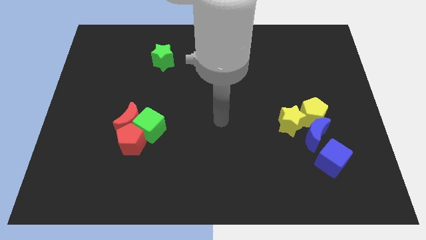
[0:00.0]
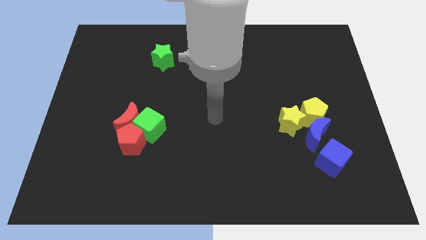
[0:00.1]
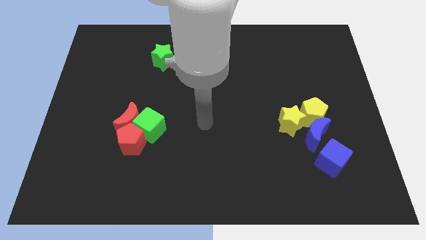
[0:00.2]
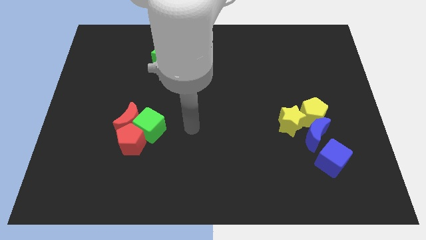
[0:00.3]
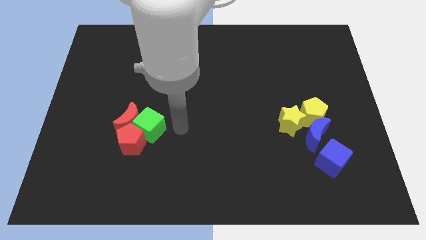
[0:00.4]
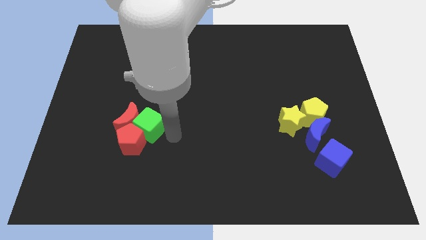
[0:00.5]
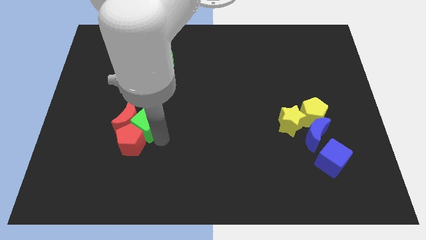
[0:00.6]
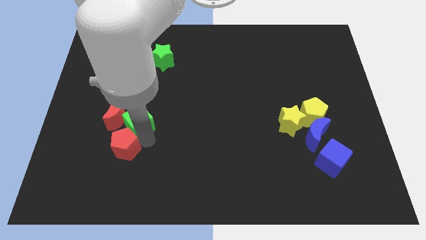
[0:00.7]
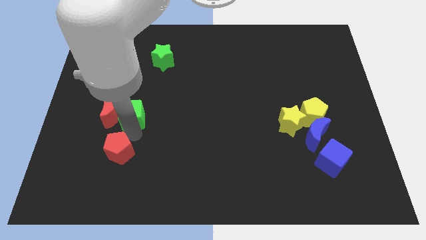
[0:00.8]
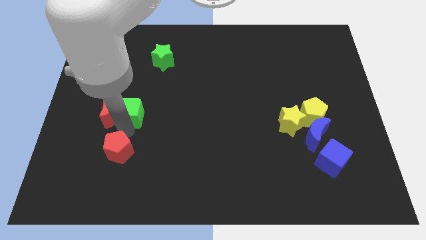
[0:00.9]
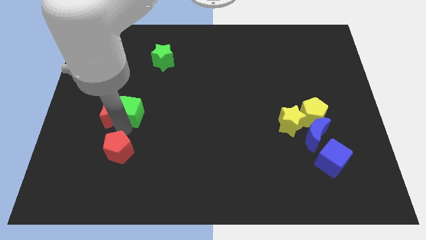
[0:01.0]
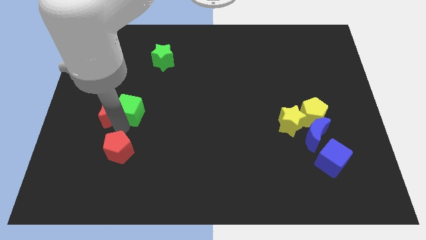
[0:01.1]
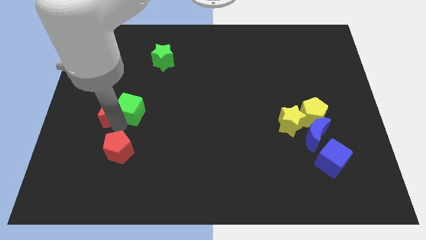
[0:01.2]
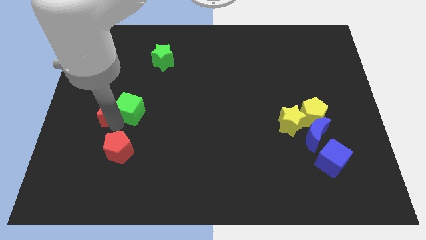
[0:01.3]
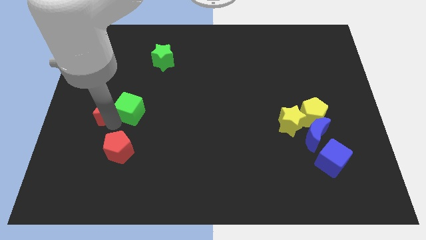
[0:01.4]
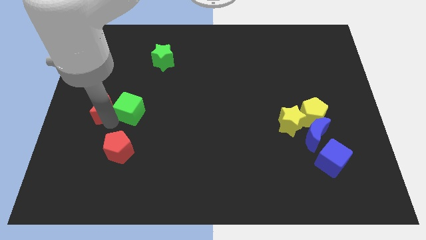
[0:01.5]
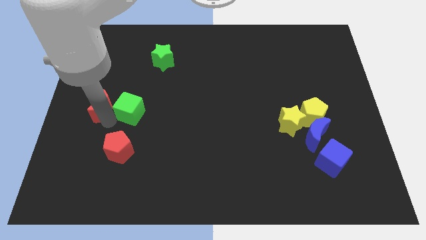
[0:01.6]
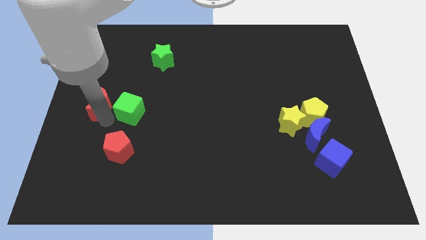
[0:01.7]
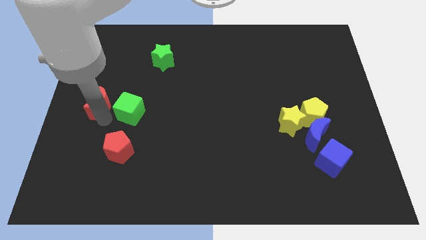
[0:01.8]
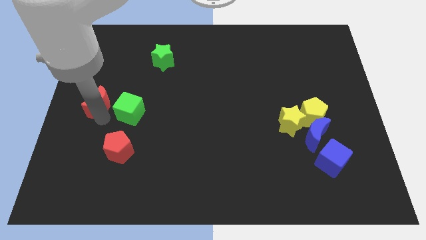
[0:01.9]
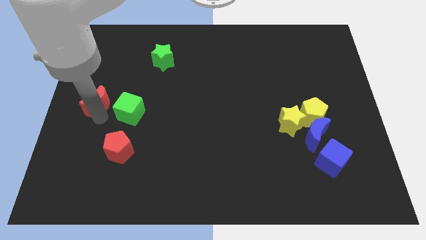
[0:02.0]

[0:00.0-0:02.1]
separate the red moon from the green cube and red pentagon

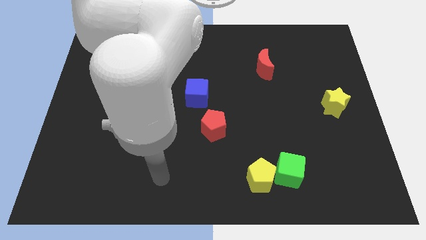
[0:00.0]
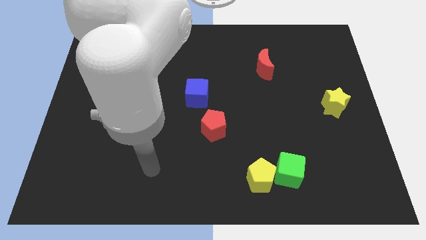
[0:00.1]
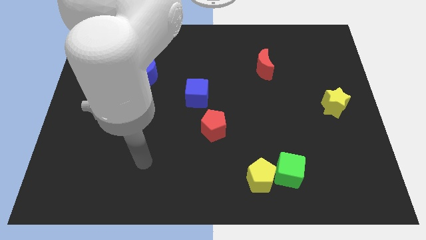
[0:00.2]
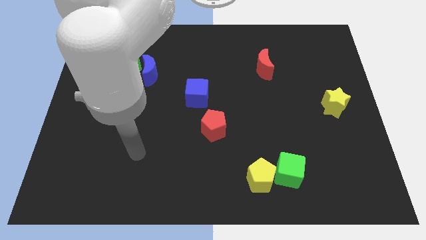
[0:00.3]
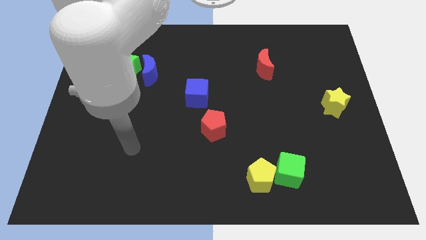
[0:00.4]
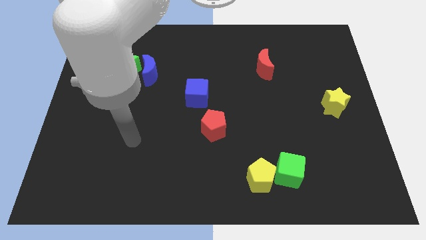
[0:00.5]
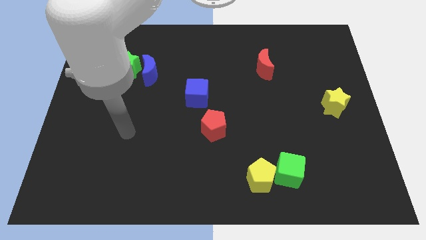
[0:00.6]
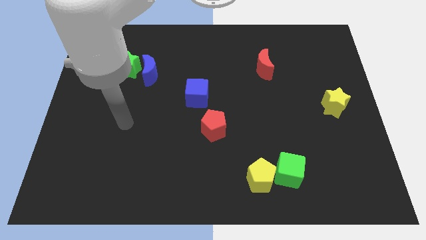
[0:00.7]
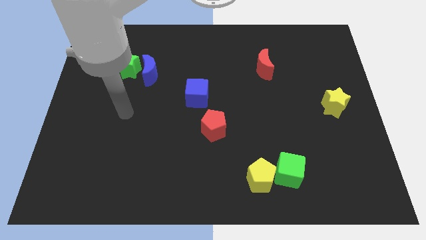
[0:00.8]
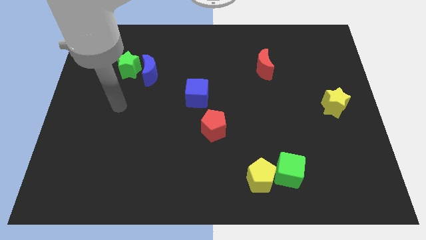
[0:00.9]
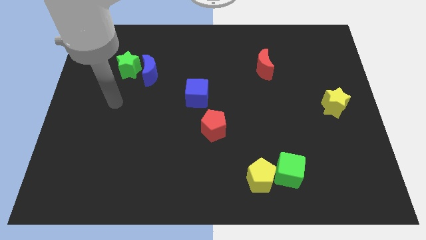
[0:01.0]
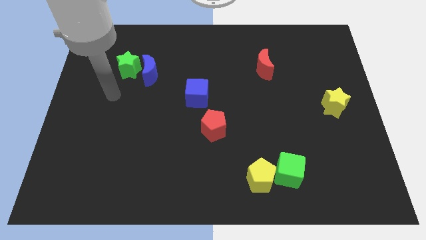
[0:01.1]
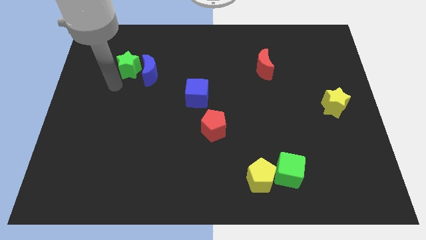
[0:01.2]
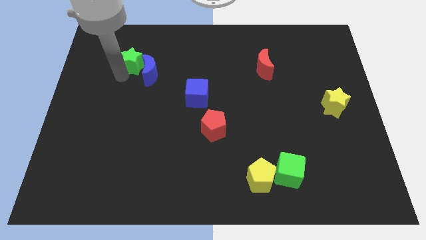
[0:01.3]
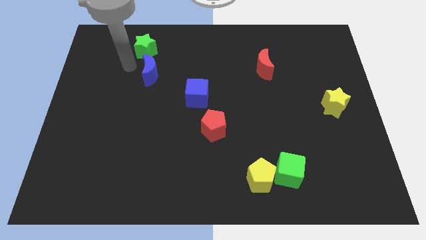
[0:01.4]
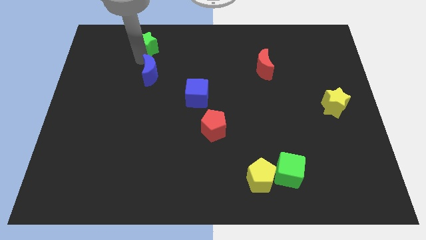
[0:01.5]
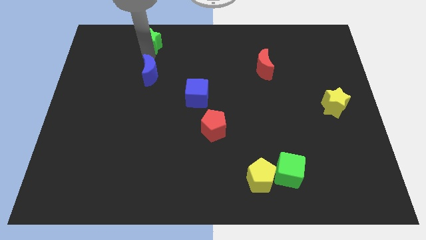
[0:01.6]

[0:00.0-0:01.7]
move the blue moon away from the green star

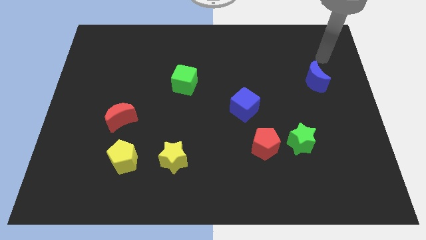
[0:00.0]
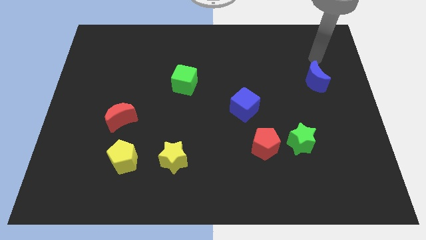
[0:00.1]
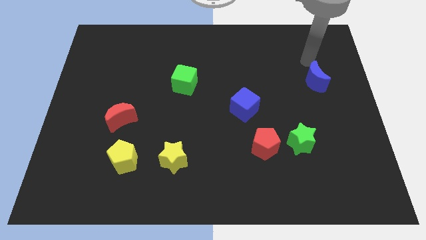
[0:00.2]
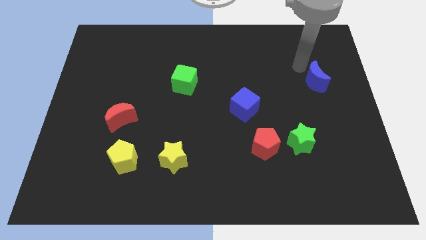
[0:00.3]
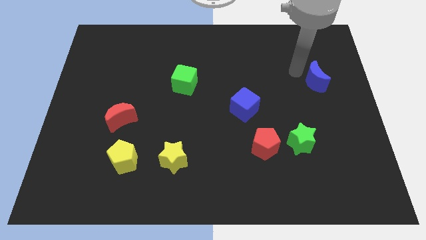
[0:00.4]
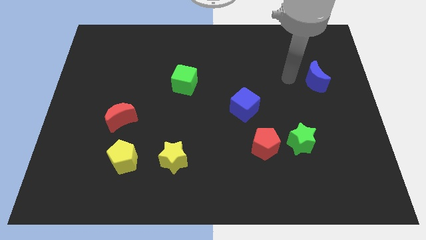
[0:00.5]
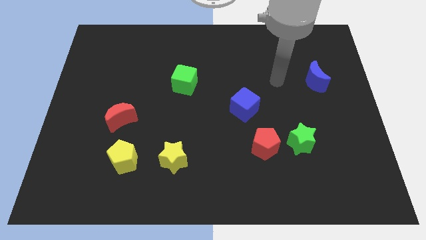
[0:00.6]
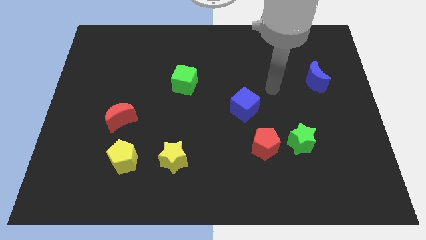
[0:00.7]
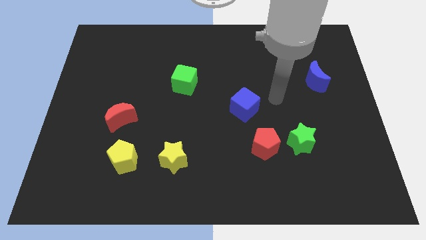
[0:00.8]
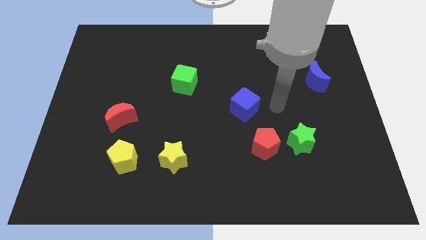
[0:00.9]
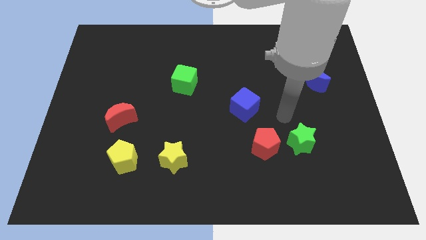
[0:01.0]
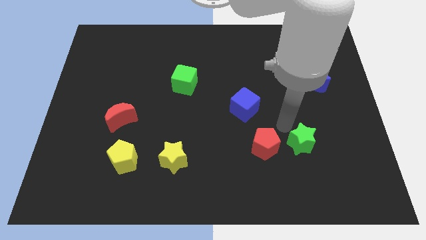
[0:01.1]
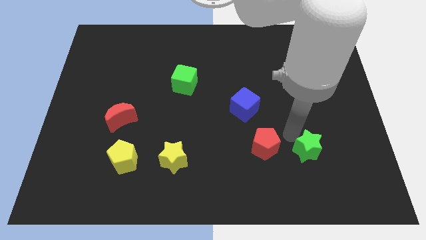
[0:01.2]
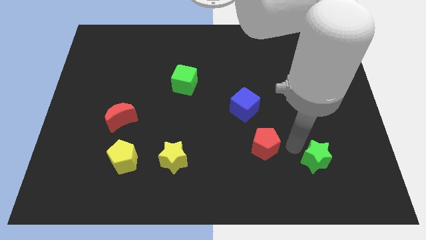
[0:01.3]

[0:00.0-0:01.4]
separate the red pentagon from the green star

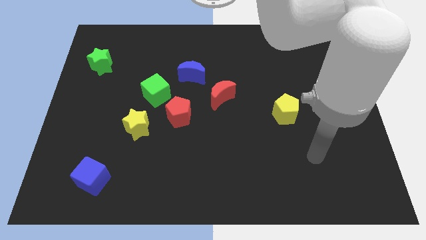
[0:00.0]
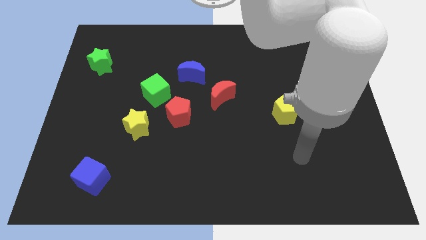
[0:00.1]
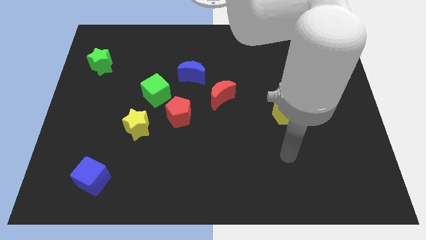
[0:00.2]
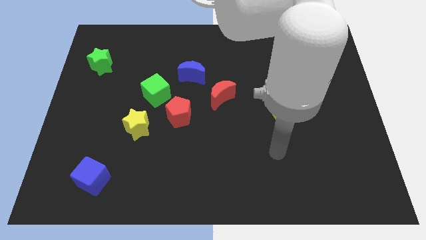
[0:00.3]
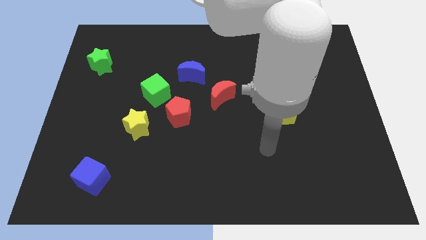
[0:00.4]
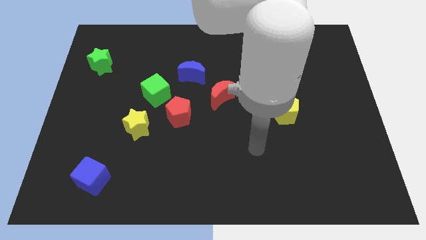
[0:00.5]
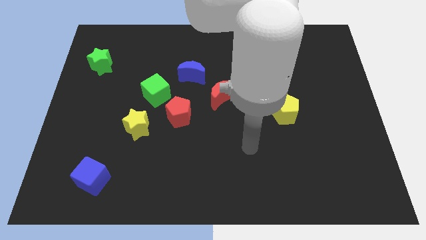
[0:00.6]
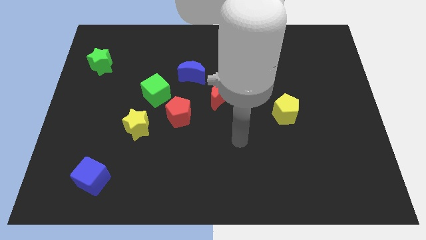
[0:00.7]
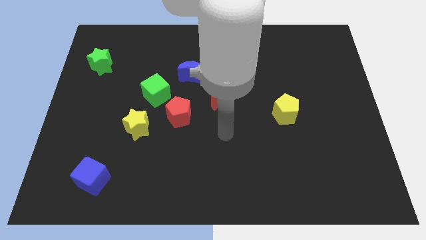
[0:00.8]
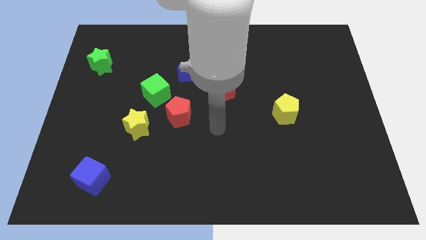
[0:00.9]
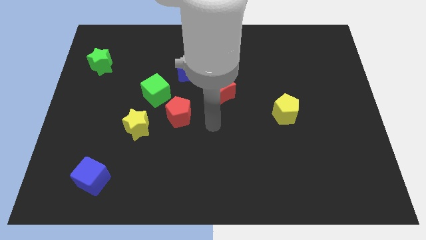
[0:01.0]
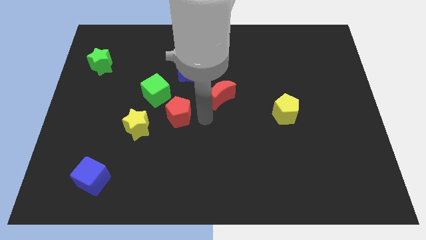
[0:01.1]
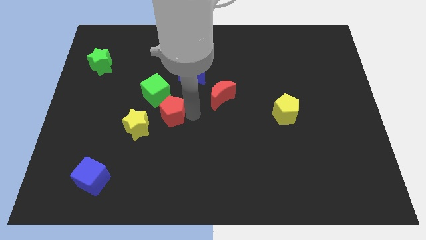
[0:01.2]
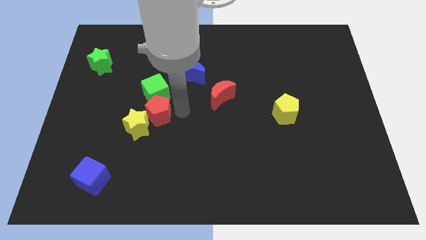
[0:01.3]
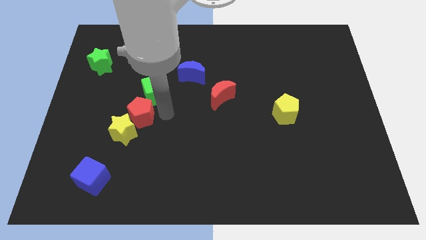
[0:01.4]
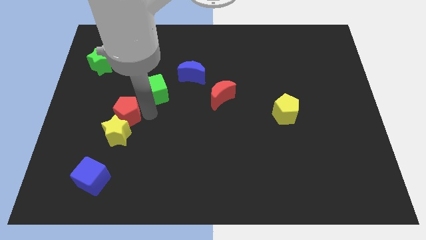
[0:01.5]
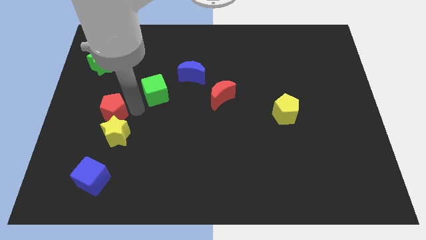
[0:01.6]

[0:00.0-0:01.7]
move the green cube away from the red pentagon

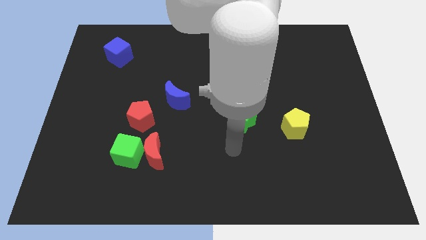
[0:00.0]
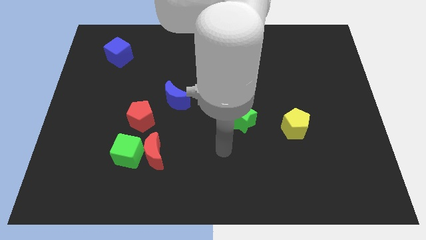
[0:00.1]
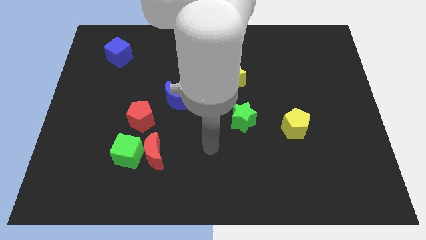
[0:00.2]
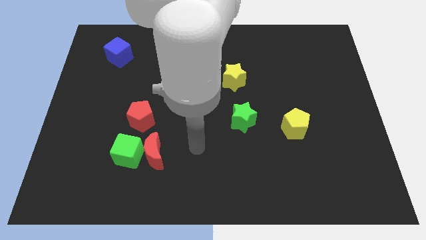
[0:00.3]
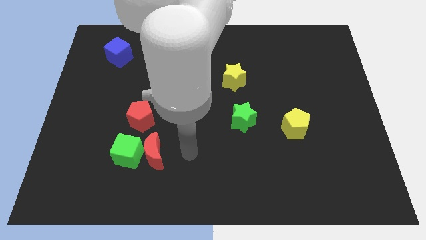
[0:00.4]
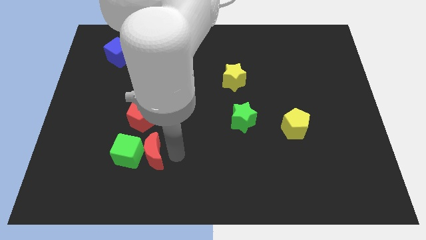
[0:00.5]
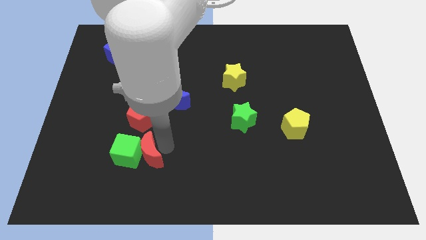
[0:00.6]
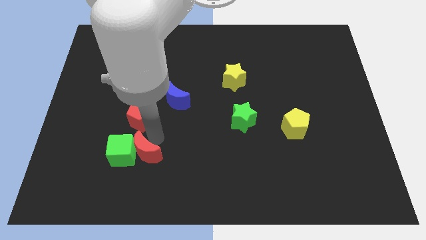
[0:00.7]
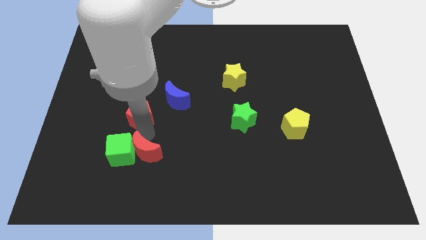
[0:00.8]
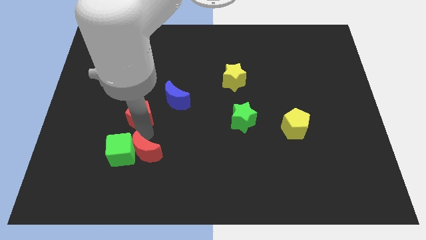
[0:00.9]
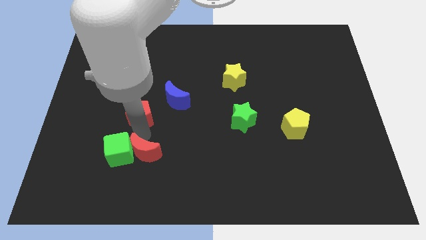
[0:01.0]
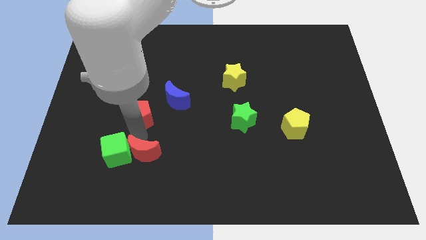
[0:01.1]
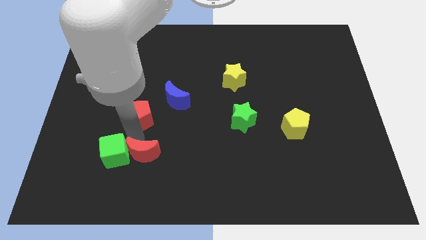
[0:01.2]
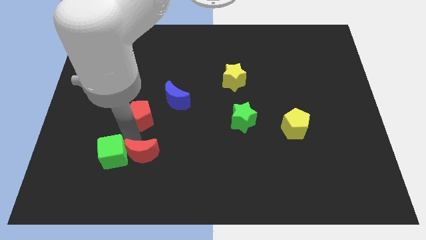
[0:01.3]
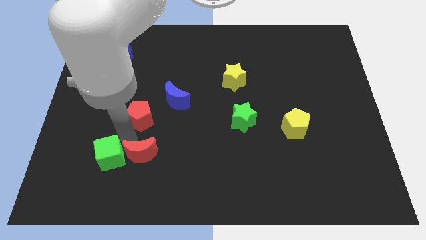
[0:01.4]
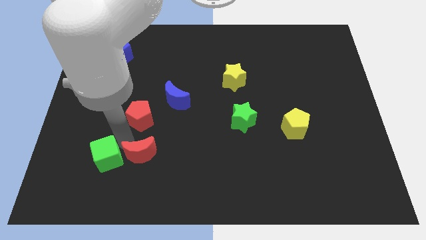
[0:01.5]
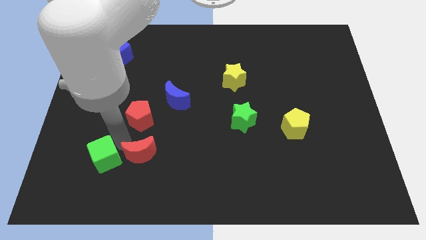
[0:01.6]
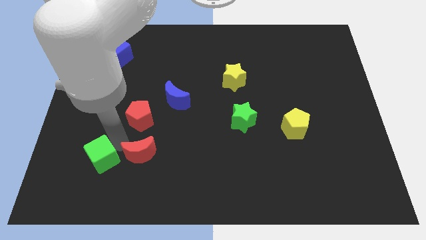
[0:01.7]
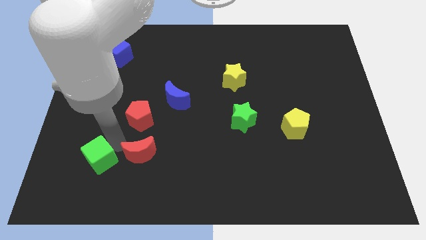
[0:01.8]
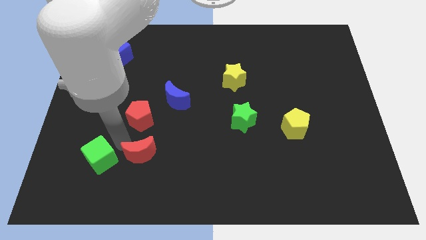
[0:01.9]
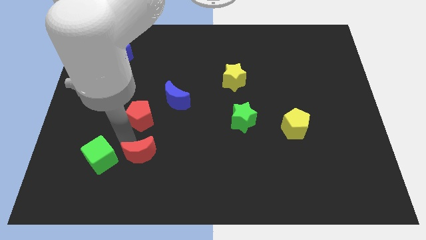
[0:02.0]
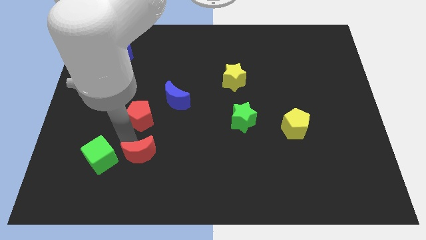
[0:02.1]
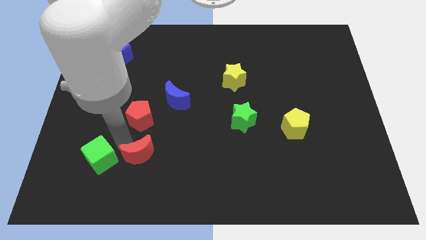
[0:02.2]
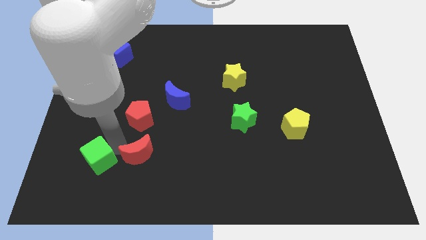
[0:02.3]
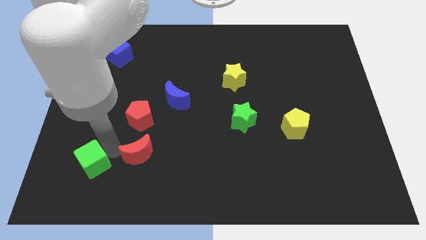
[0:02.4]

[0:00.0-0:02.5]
separate the green cube from the red moon and red pentagon
